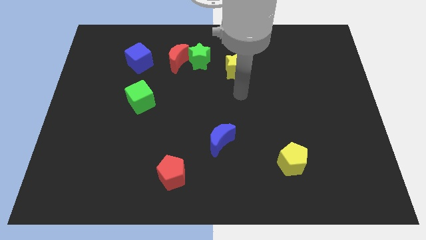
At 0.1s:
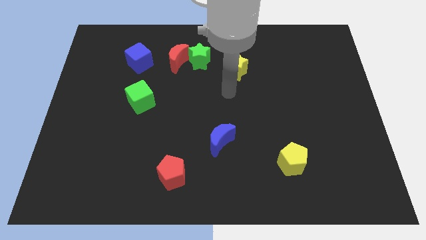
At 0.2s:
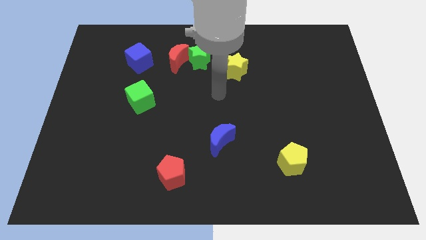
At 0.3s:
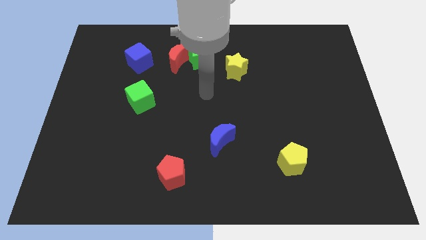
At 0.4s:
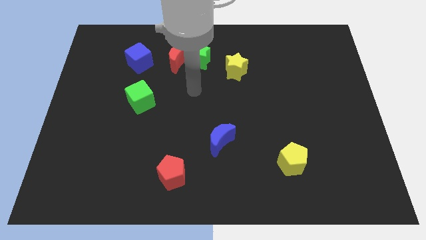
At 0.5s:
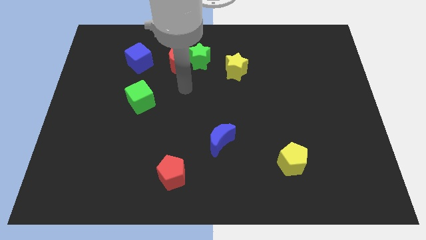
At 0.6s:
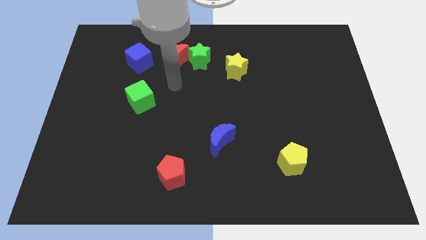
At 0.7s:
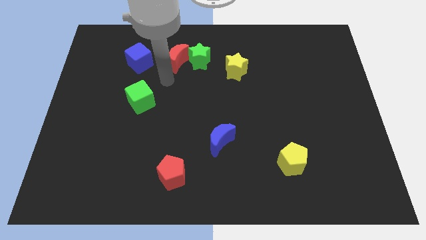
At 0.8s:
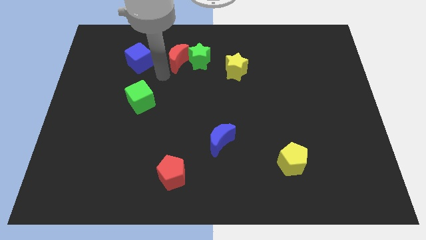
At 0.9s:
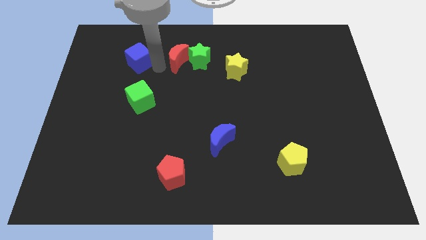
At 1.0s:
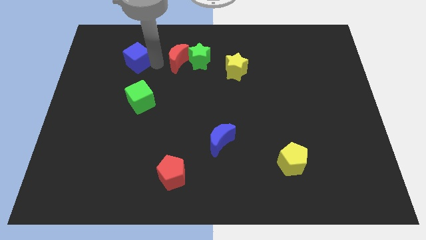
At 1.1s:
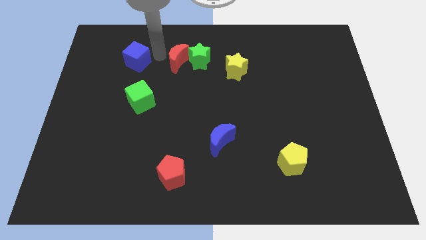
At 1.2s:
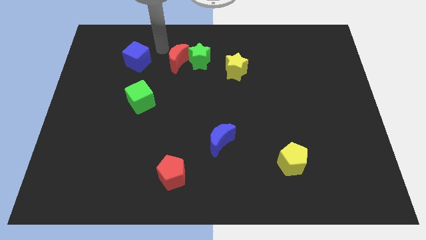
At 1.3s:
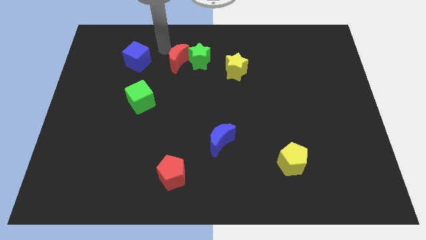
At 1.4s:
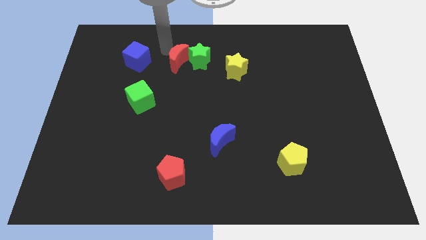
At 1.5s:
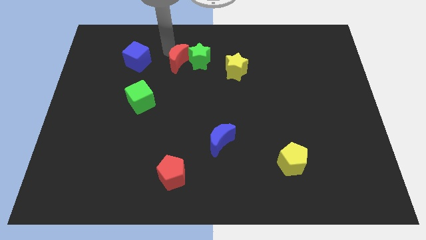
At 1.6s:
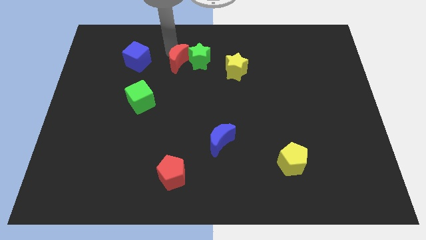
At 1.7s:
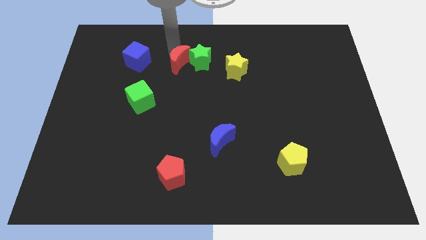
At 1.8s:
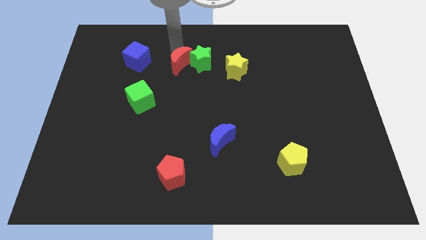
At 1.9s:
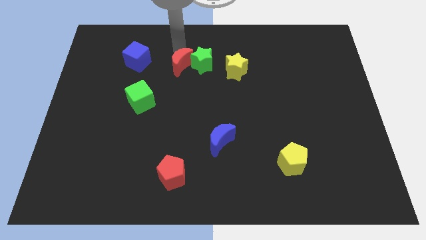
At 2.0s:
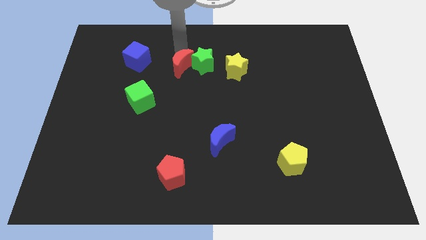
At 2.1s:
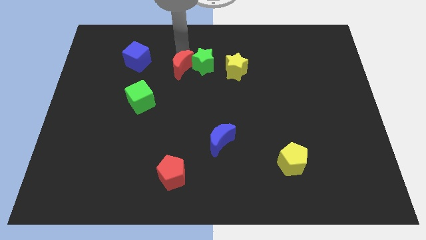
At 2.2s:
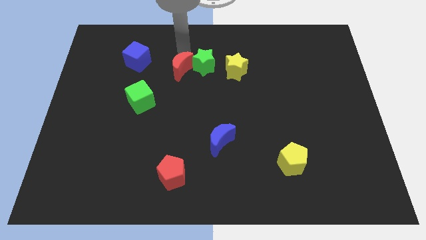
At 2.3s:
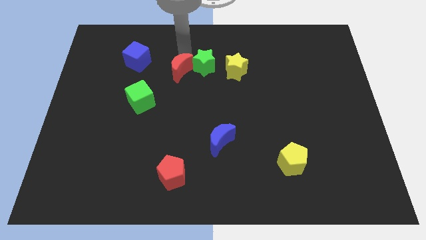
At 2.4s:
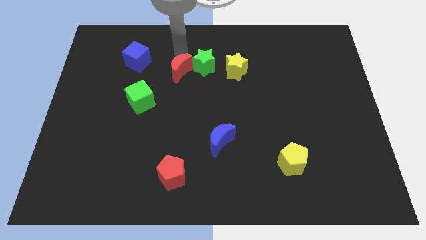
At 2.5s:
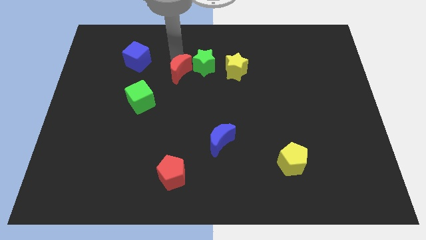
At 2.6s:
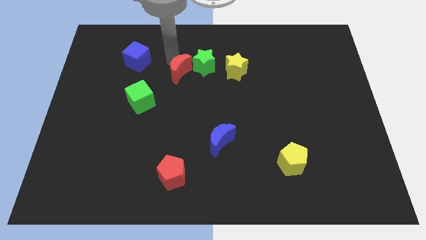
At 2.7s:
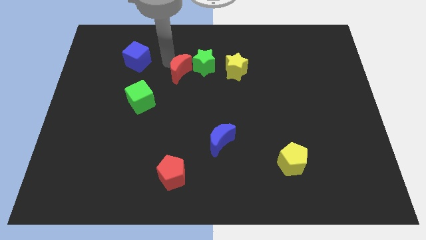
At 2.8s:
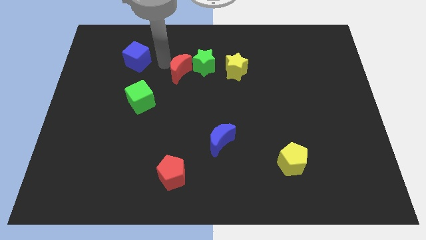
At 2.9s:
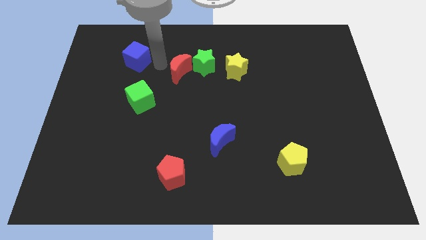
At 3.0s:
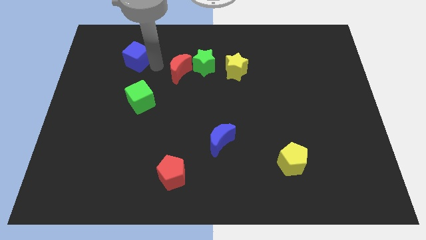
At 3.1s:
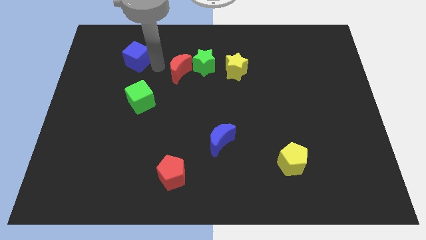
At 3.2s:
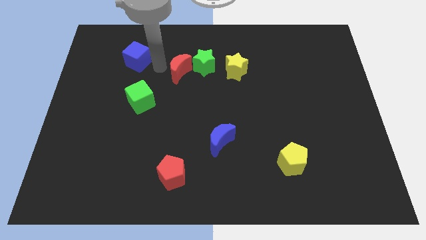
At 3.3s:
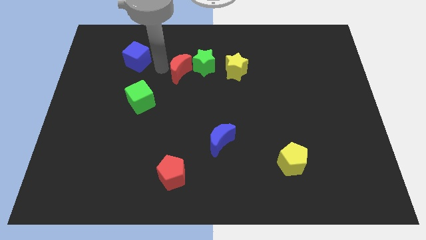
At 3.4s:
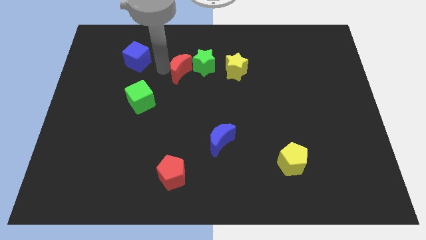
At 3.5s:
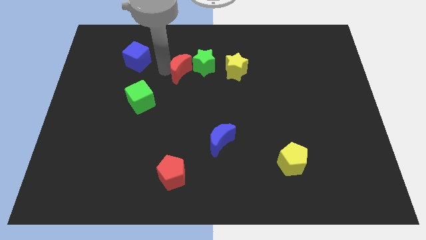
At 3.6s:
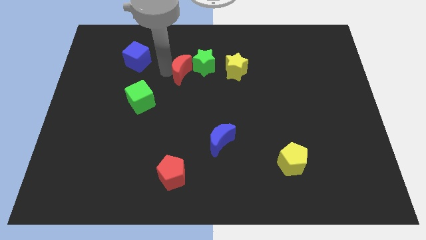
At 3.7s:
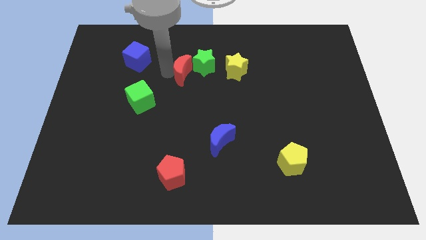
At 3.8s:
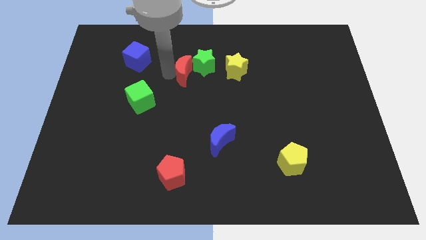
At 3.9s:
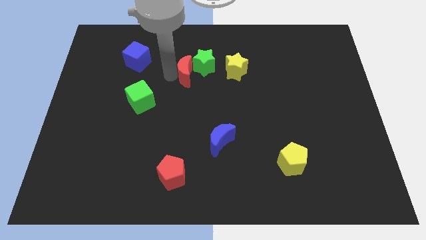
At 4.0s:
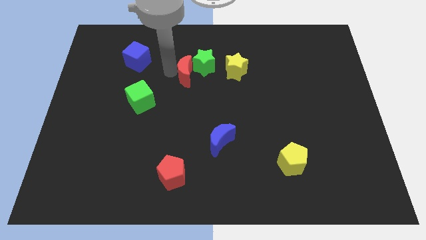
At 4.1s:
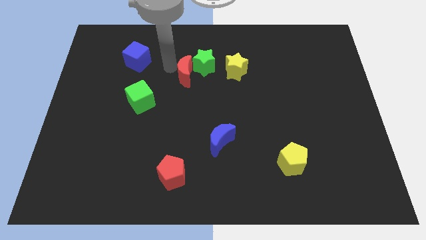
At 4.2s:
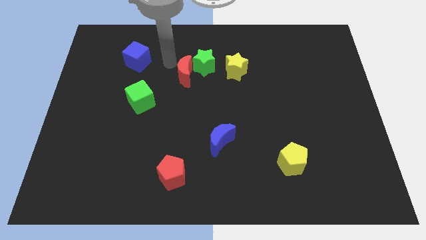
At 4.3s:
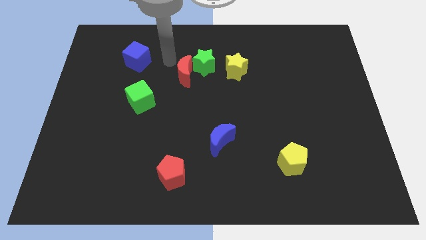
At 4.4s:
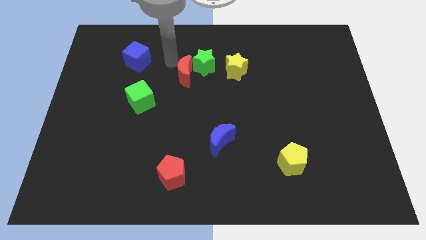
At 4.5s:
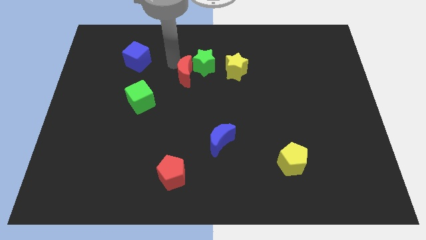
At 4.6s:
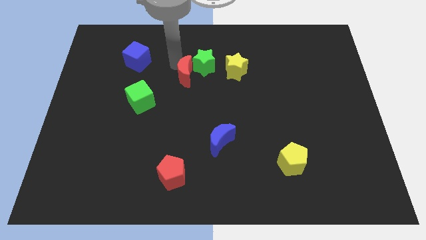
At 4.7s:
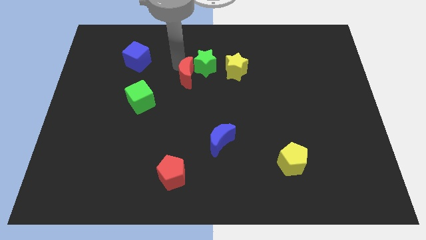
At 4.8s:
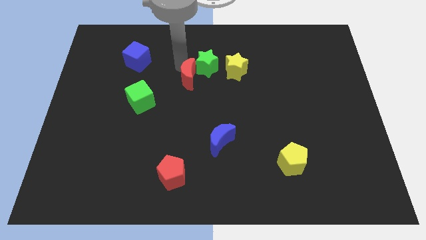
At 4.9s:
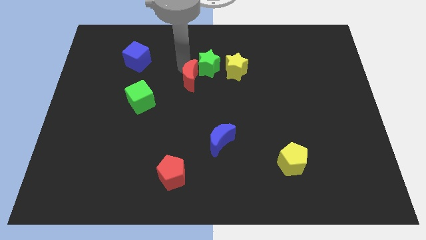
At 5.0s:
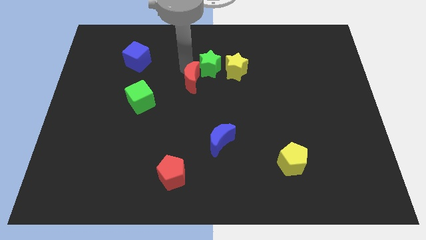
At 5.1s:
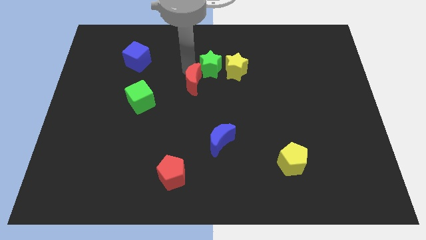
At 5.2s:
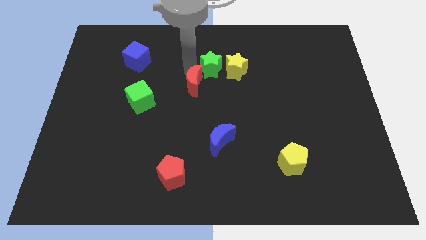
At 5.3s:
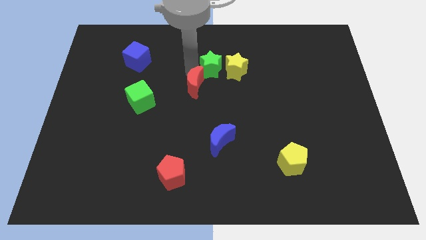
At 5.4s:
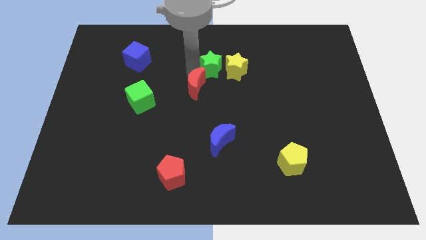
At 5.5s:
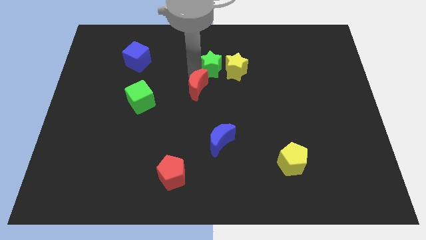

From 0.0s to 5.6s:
separate the red moon from the green star and blue cube

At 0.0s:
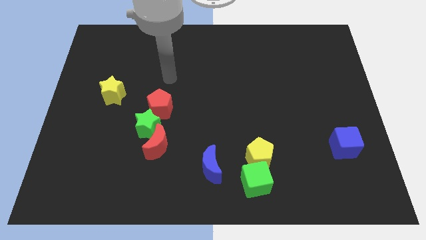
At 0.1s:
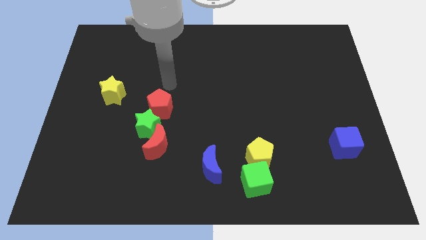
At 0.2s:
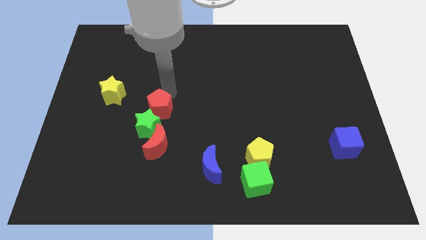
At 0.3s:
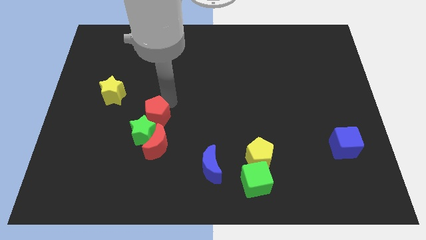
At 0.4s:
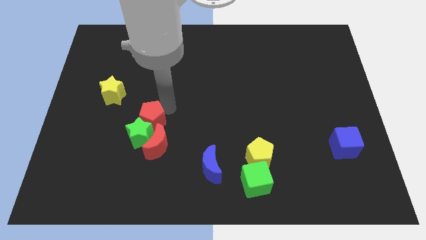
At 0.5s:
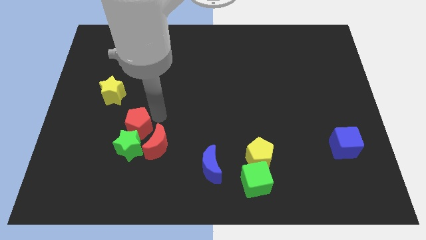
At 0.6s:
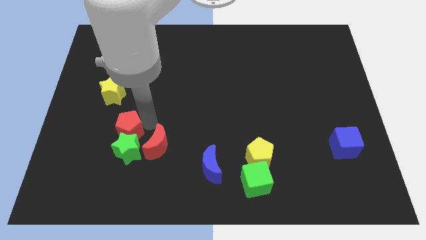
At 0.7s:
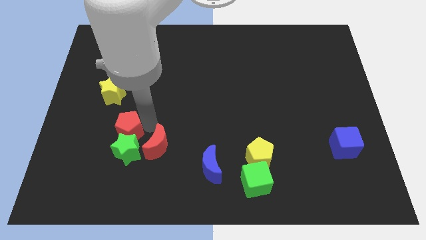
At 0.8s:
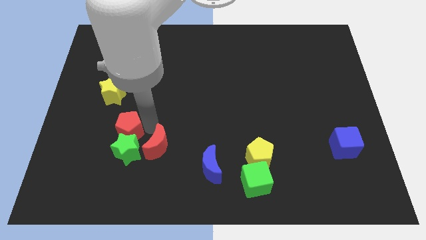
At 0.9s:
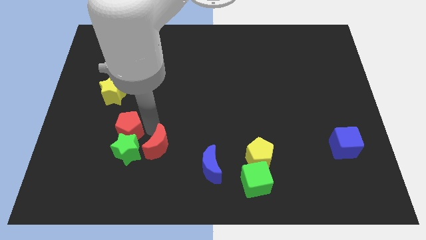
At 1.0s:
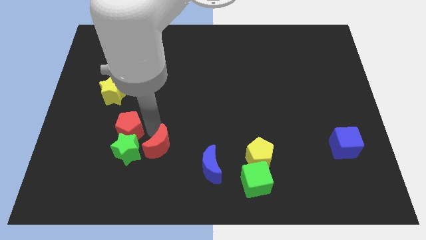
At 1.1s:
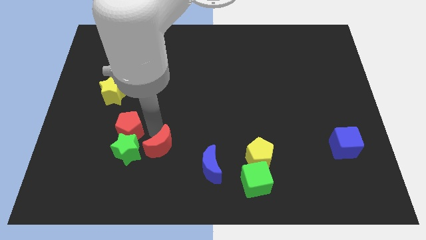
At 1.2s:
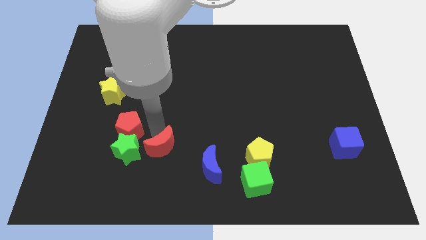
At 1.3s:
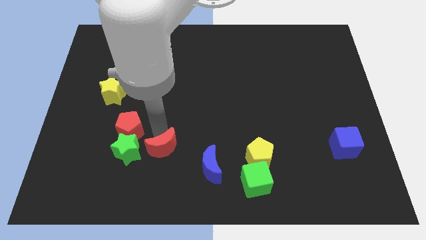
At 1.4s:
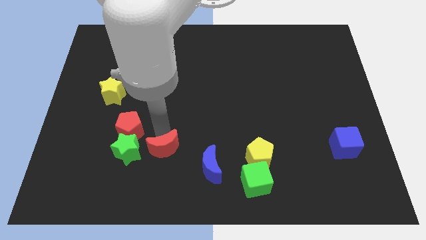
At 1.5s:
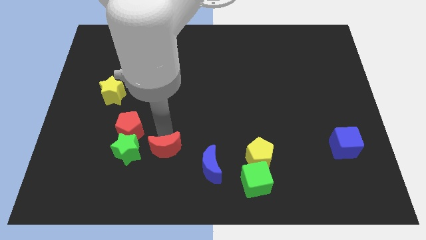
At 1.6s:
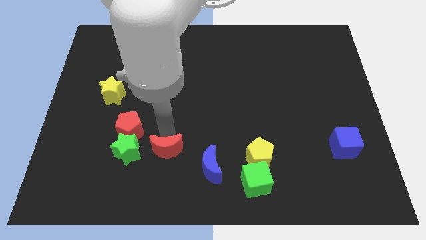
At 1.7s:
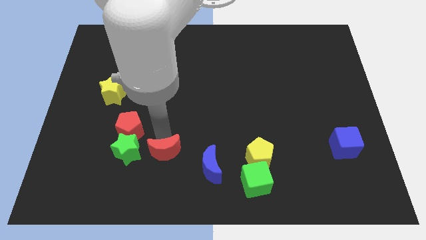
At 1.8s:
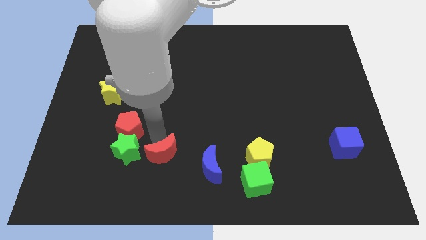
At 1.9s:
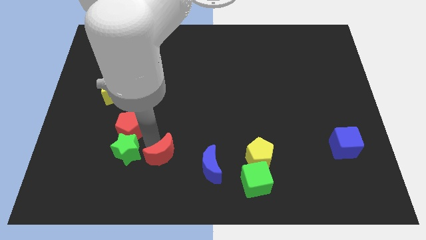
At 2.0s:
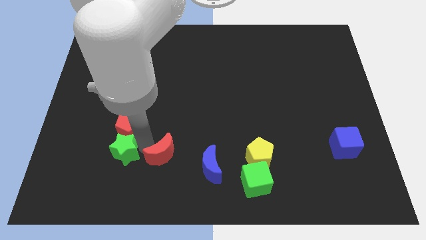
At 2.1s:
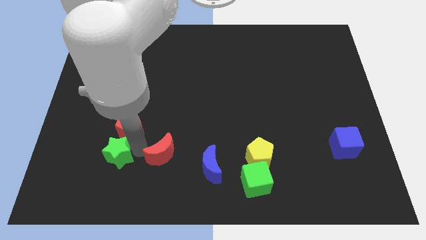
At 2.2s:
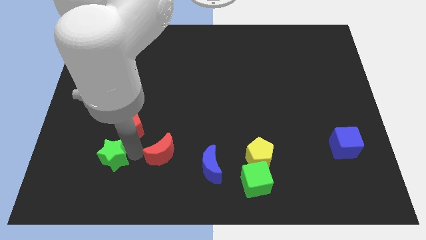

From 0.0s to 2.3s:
pull the red moon apart from the green star

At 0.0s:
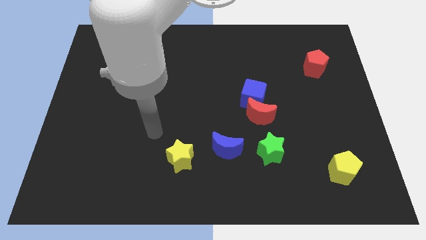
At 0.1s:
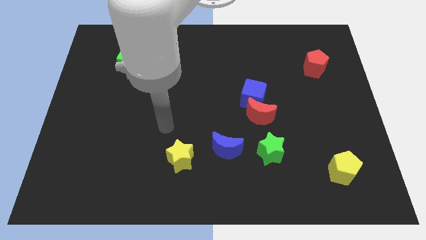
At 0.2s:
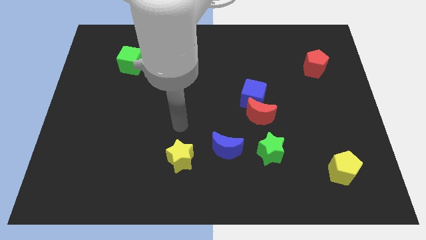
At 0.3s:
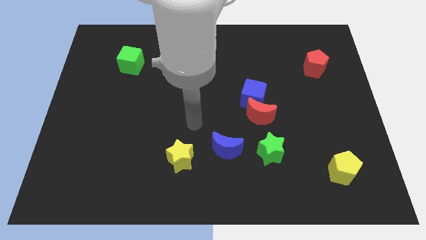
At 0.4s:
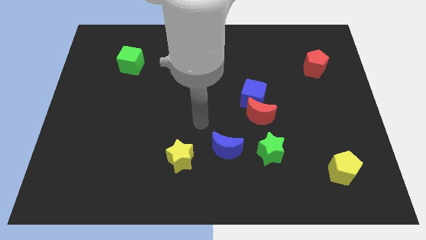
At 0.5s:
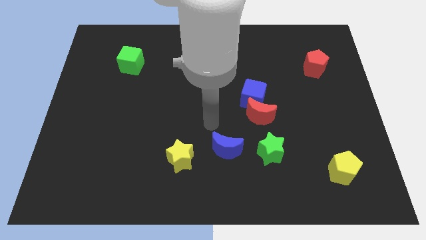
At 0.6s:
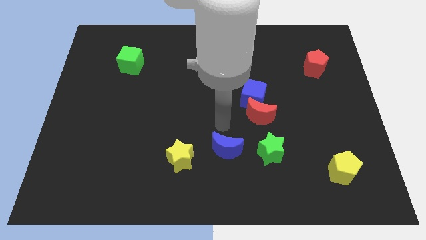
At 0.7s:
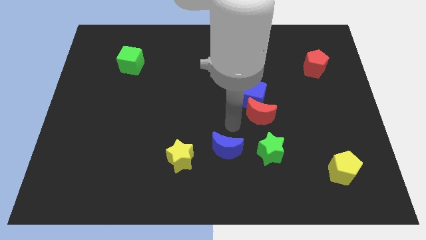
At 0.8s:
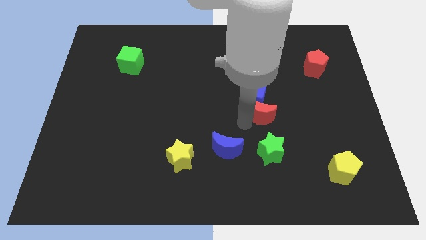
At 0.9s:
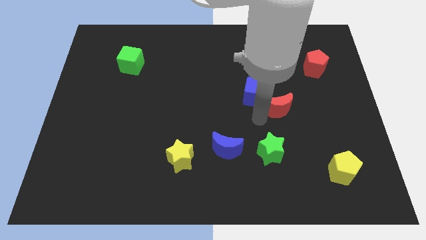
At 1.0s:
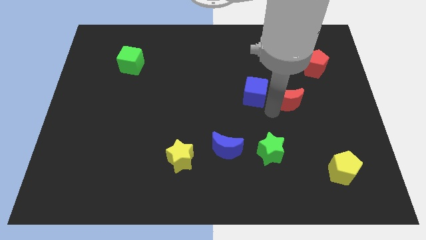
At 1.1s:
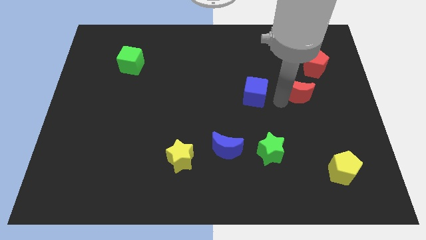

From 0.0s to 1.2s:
pull the blue cube apart from the red moon

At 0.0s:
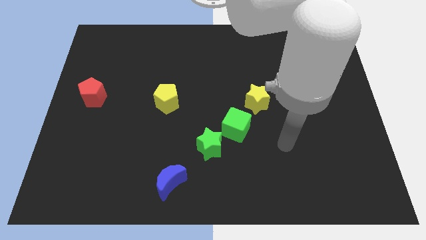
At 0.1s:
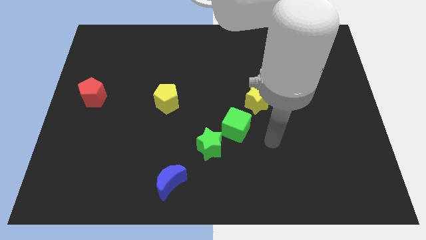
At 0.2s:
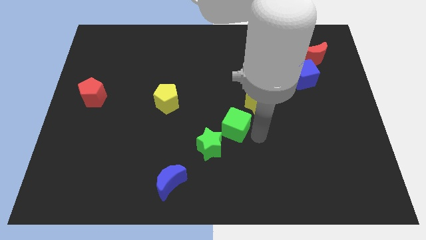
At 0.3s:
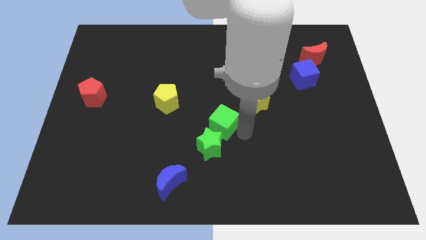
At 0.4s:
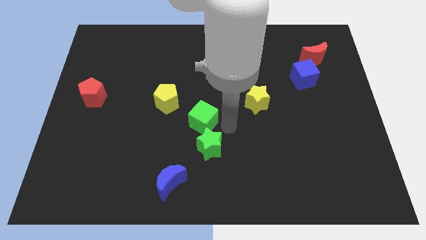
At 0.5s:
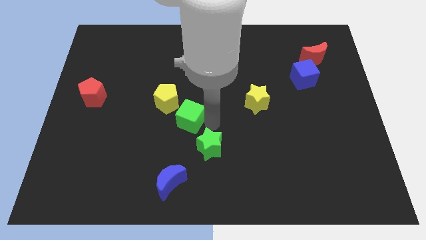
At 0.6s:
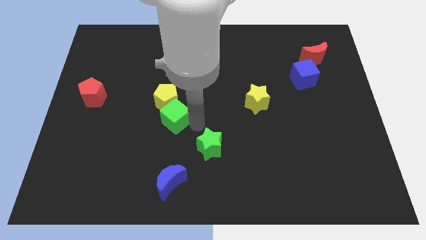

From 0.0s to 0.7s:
separate the green star from the green cube
